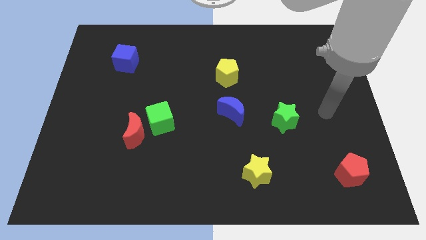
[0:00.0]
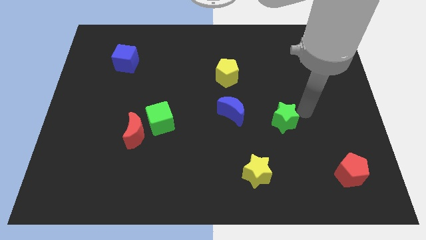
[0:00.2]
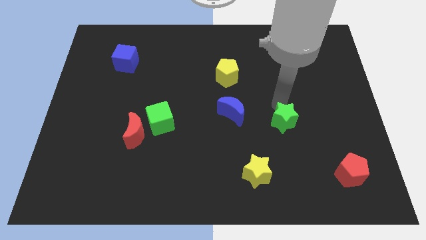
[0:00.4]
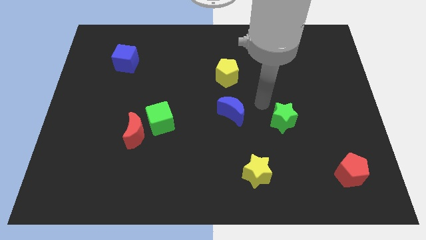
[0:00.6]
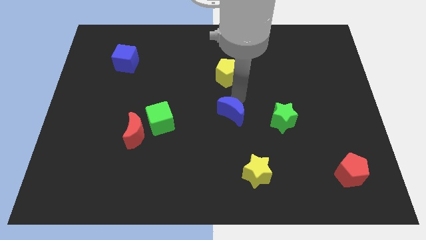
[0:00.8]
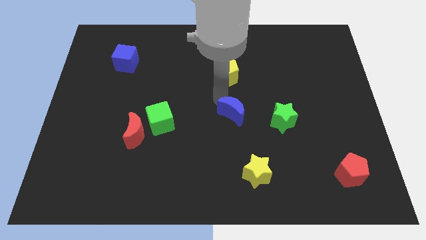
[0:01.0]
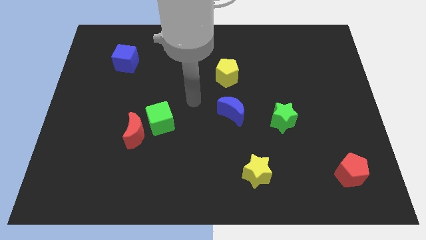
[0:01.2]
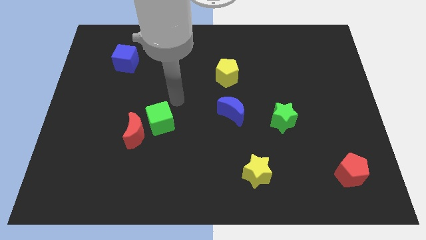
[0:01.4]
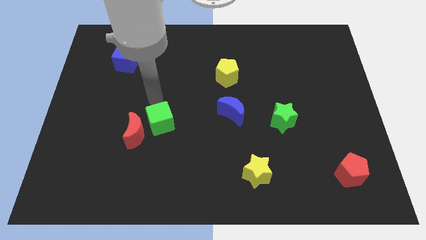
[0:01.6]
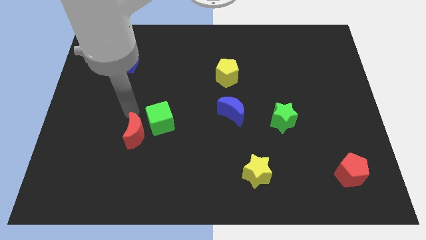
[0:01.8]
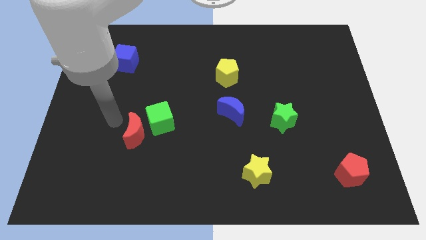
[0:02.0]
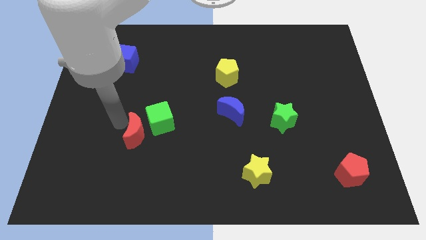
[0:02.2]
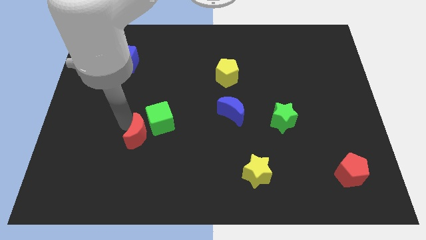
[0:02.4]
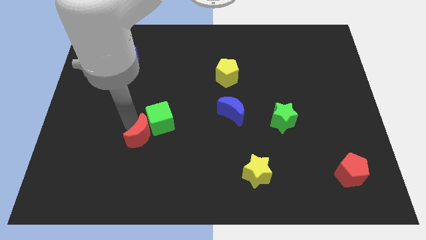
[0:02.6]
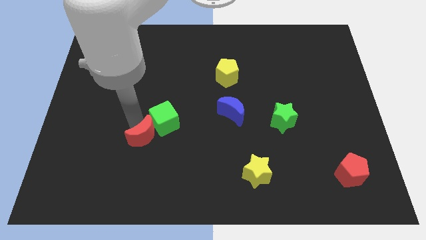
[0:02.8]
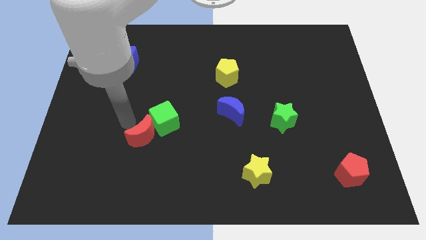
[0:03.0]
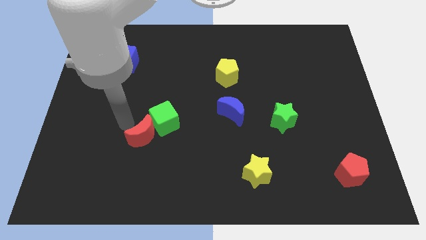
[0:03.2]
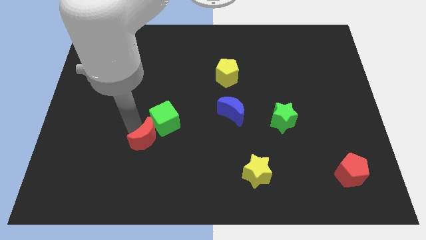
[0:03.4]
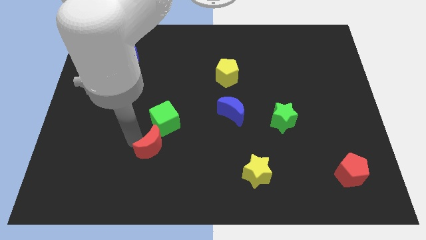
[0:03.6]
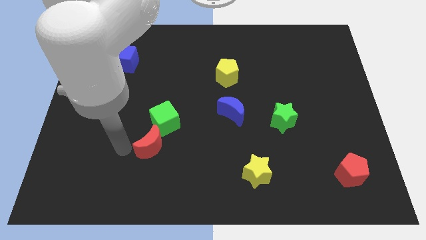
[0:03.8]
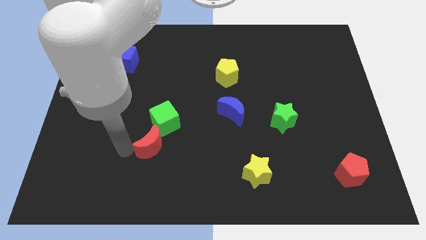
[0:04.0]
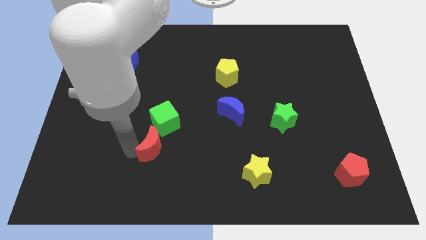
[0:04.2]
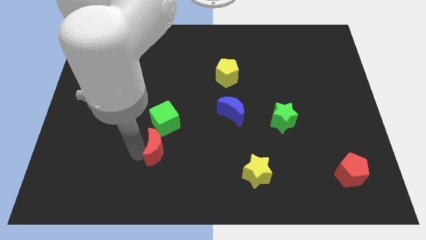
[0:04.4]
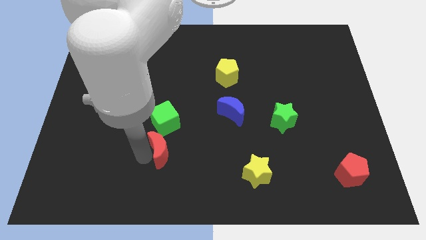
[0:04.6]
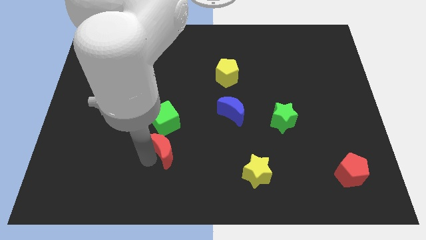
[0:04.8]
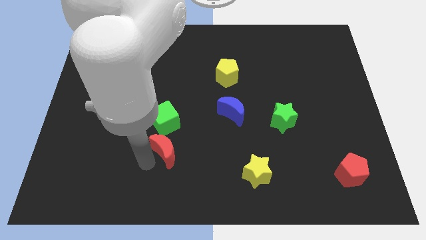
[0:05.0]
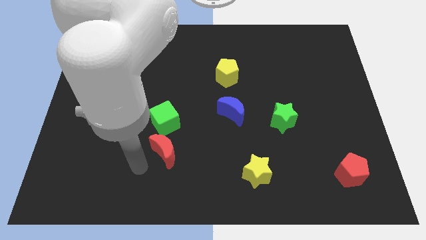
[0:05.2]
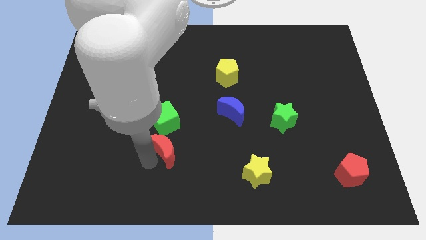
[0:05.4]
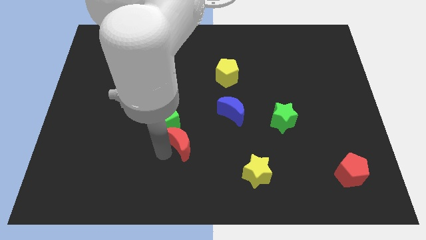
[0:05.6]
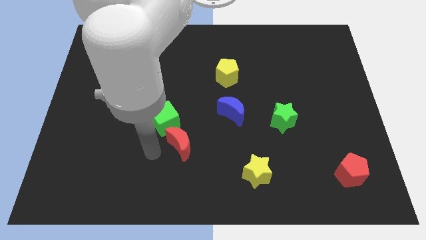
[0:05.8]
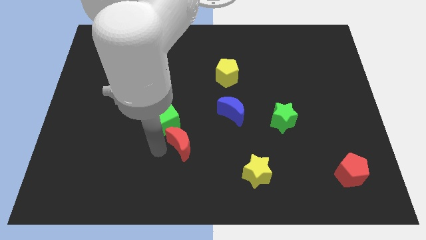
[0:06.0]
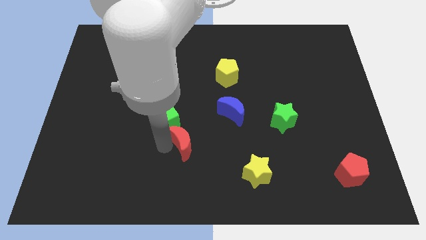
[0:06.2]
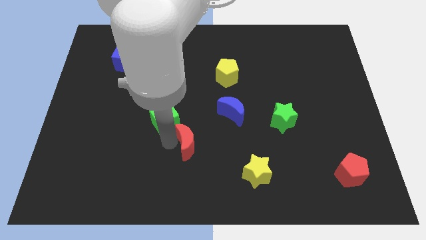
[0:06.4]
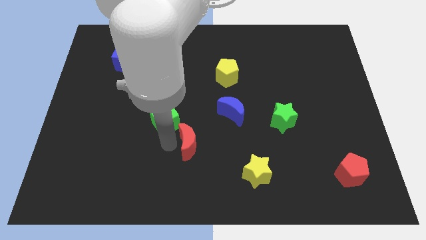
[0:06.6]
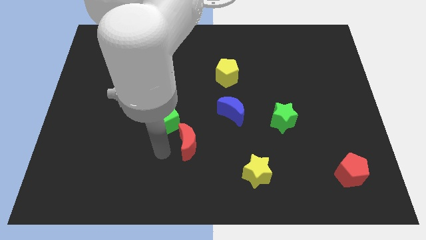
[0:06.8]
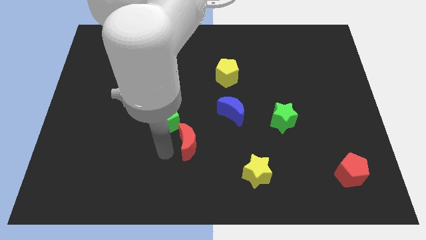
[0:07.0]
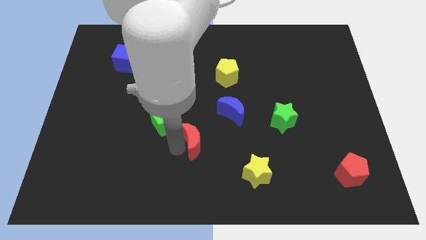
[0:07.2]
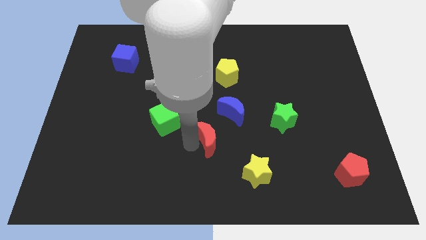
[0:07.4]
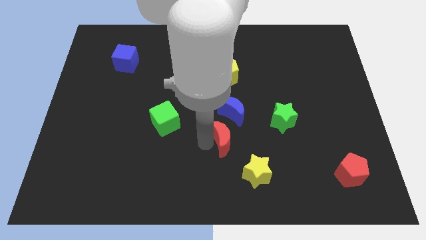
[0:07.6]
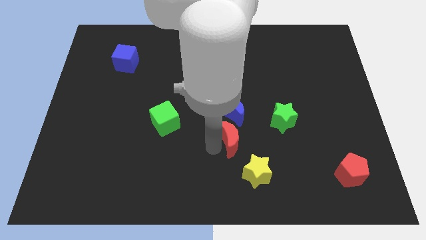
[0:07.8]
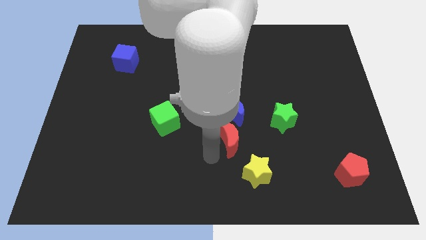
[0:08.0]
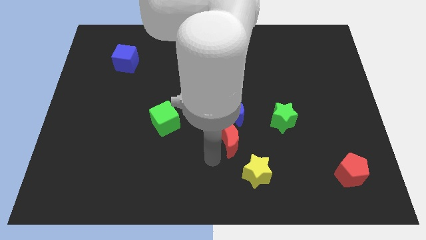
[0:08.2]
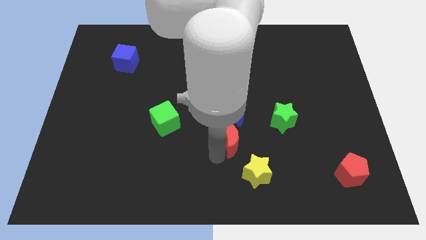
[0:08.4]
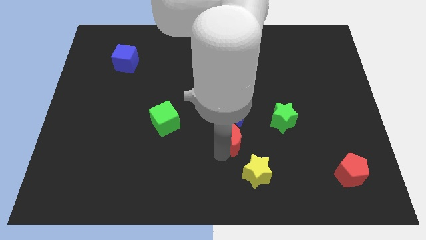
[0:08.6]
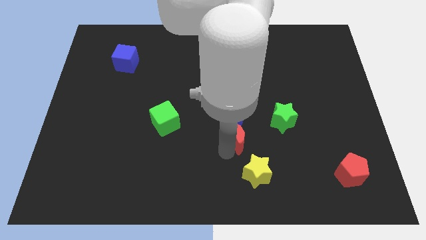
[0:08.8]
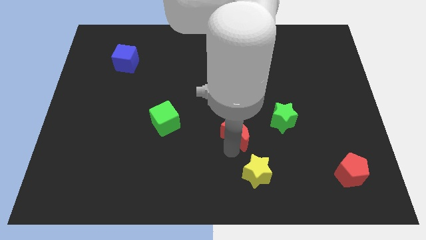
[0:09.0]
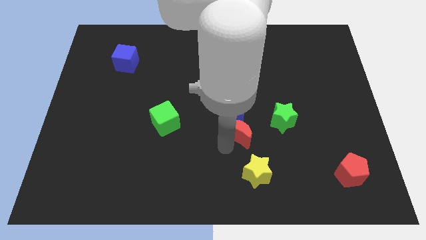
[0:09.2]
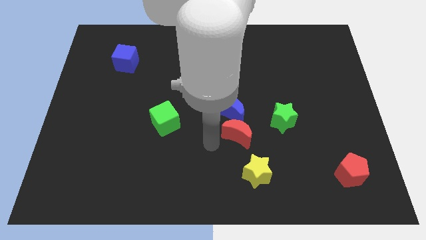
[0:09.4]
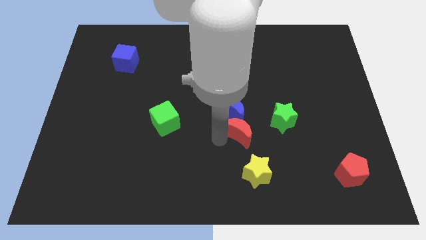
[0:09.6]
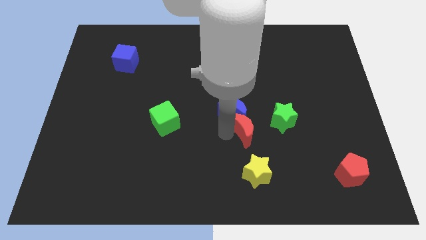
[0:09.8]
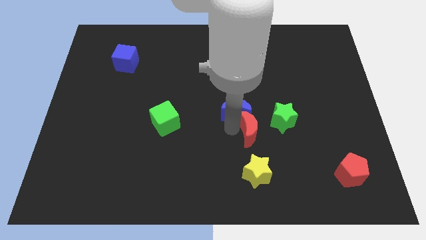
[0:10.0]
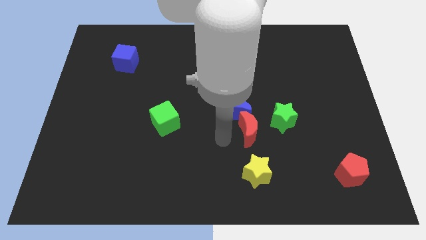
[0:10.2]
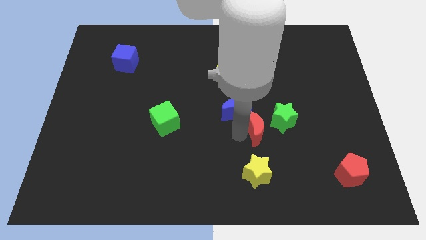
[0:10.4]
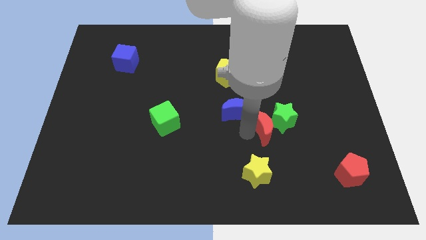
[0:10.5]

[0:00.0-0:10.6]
push the red moon towards the green star

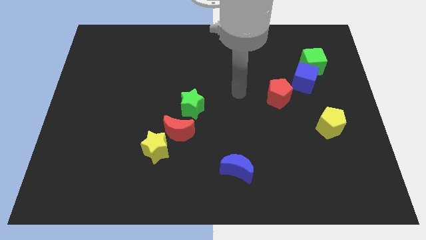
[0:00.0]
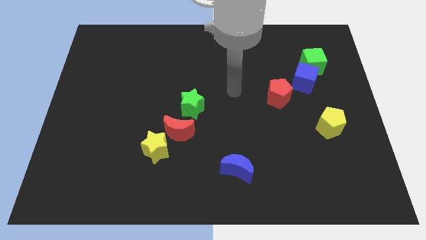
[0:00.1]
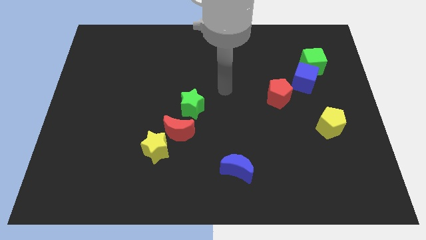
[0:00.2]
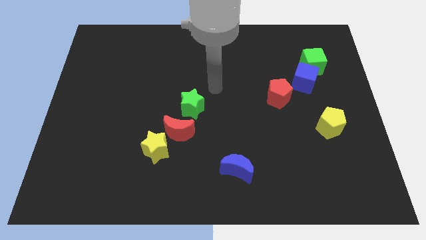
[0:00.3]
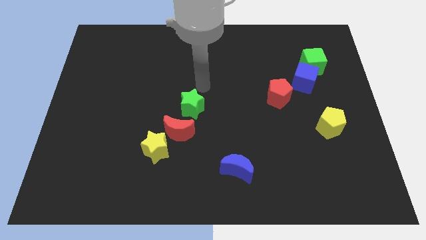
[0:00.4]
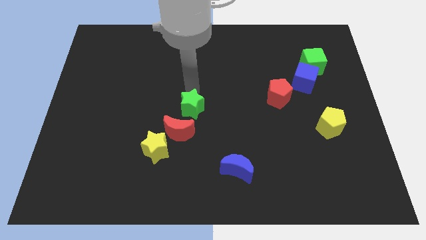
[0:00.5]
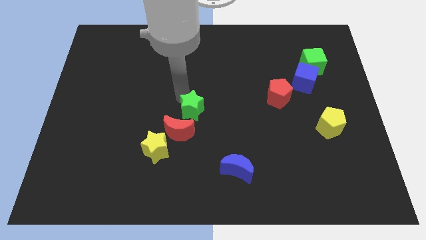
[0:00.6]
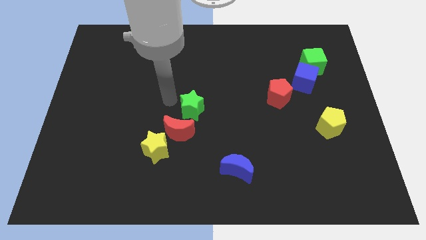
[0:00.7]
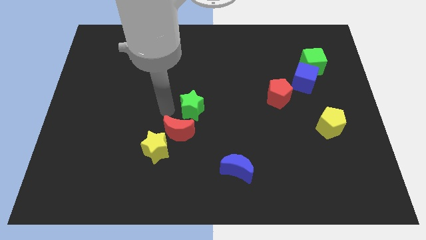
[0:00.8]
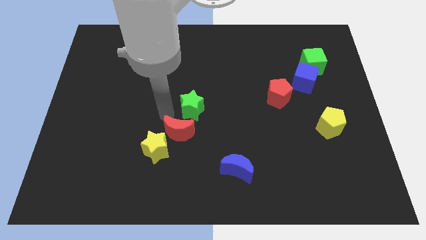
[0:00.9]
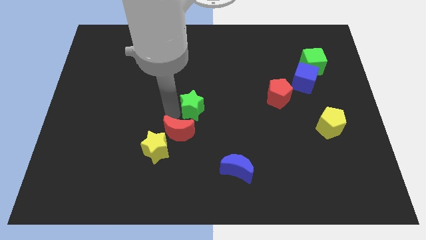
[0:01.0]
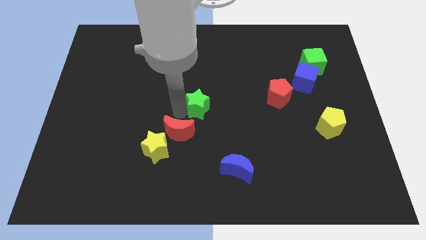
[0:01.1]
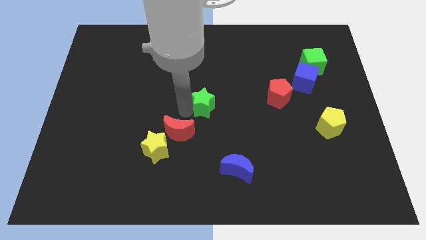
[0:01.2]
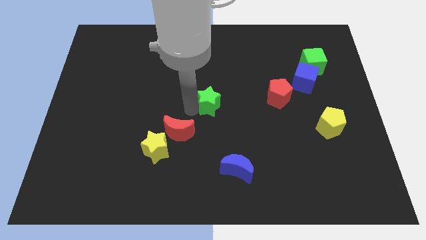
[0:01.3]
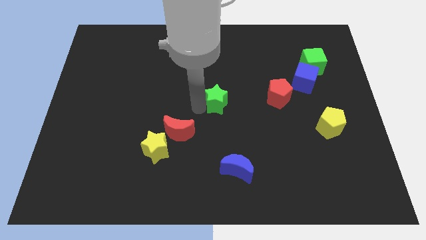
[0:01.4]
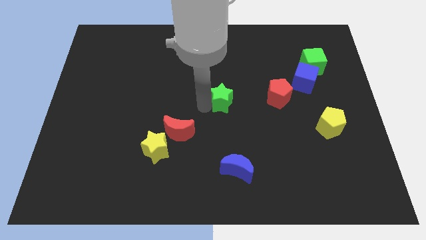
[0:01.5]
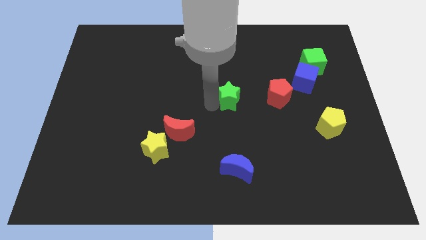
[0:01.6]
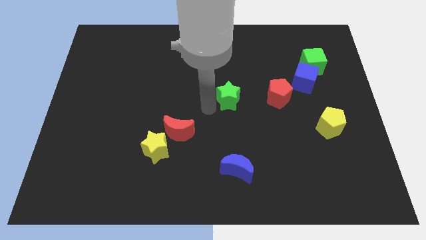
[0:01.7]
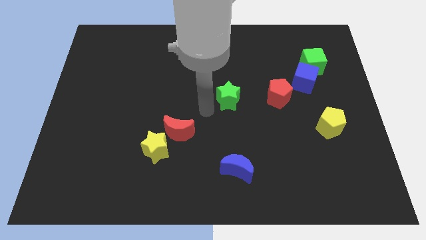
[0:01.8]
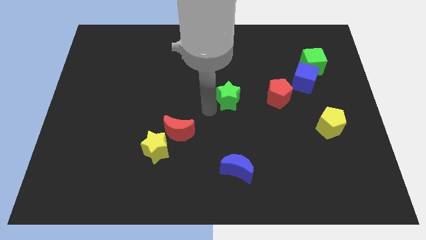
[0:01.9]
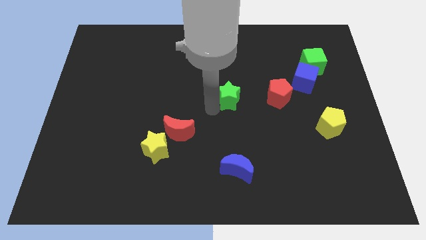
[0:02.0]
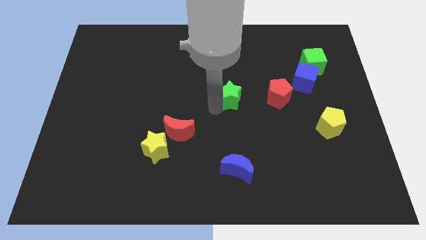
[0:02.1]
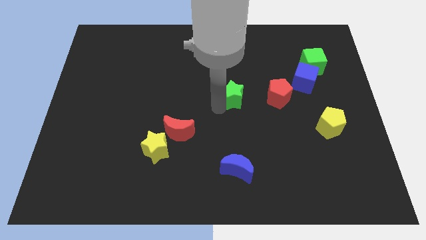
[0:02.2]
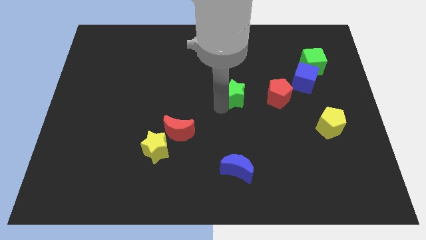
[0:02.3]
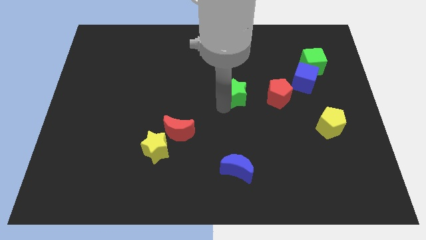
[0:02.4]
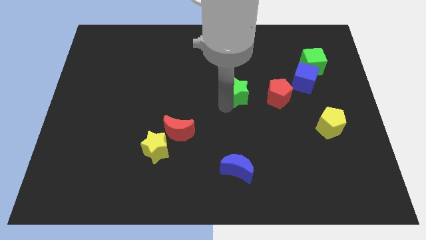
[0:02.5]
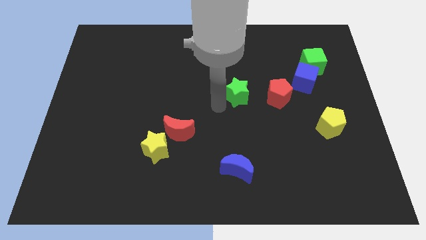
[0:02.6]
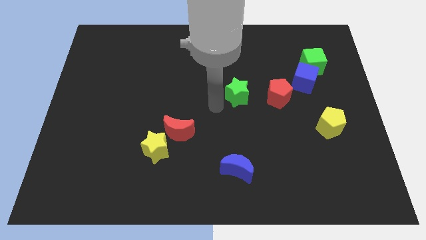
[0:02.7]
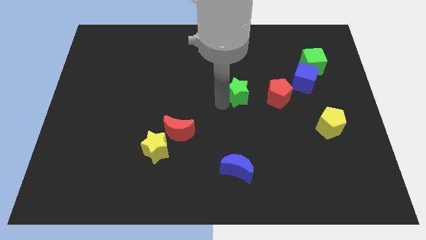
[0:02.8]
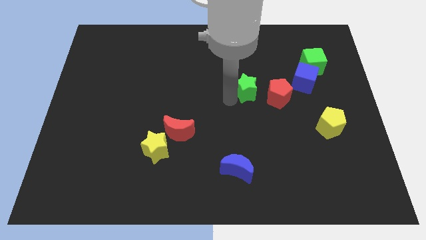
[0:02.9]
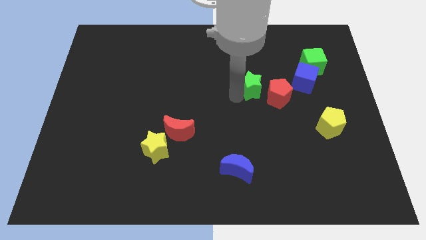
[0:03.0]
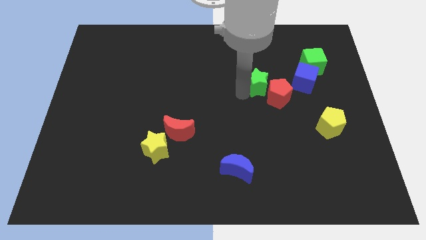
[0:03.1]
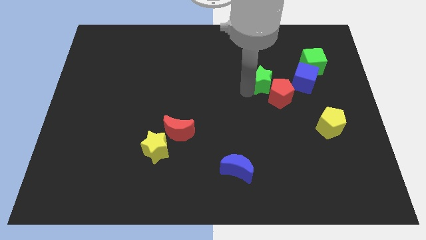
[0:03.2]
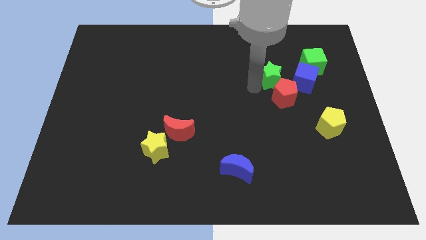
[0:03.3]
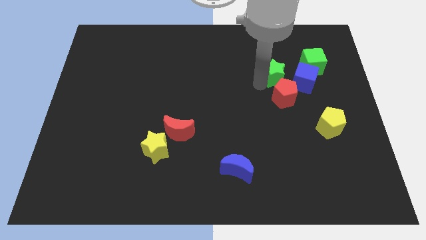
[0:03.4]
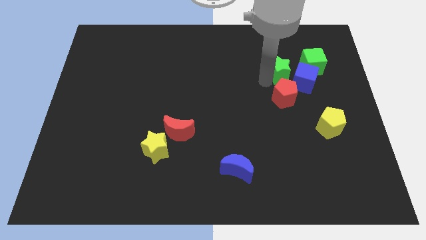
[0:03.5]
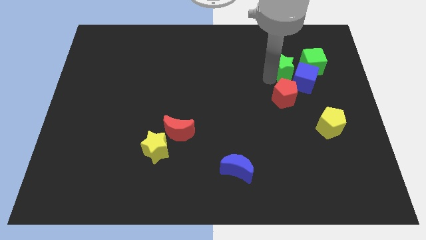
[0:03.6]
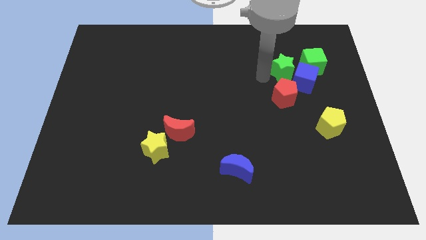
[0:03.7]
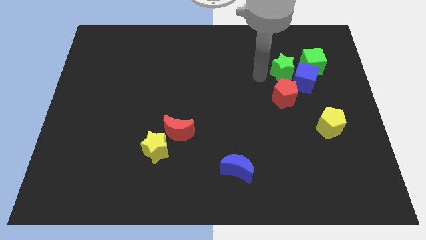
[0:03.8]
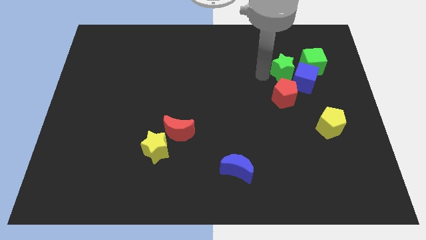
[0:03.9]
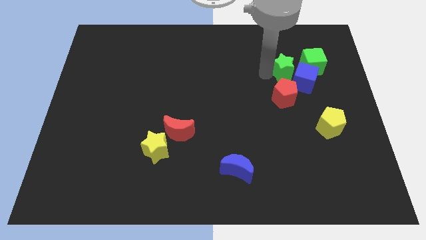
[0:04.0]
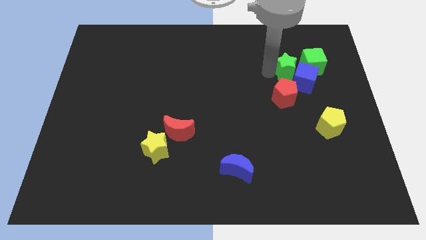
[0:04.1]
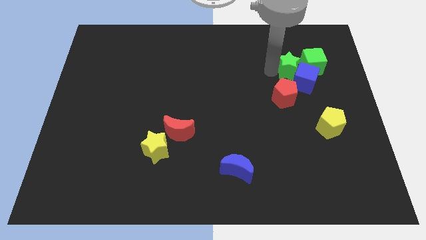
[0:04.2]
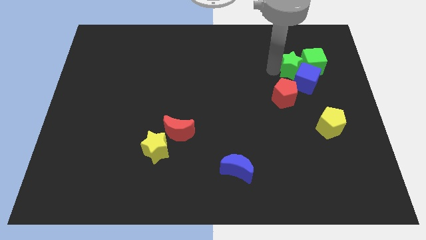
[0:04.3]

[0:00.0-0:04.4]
push the green star close to the green cube
